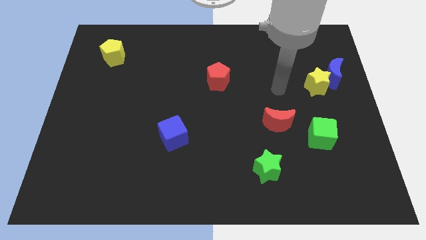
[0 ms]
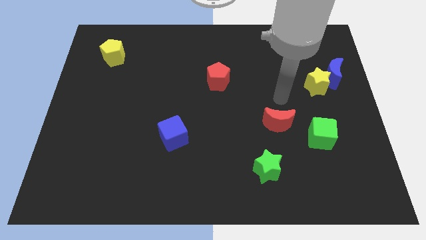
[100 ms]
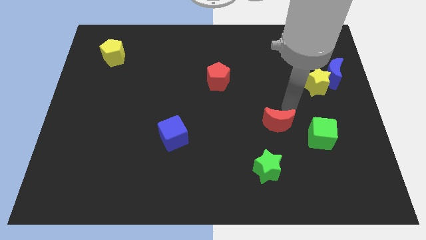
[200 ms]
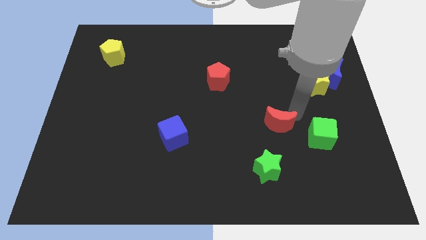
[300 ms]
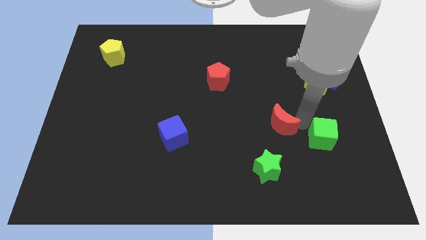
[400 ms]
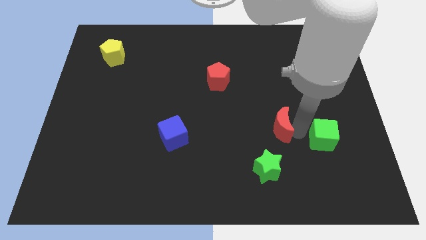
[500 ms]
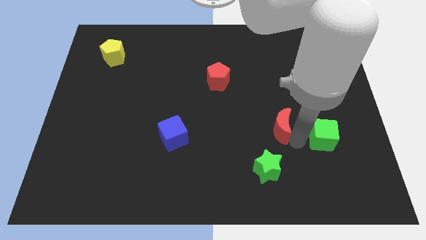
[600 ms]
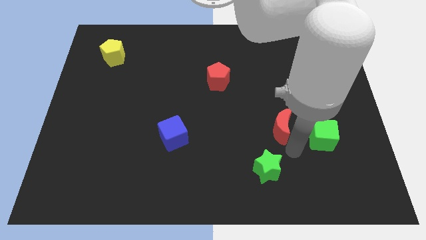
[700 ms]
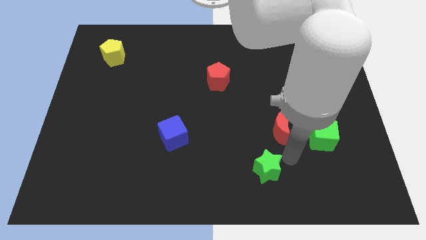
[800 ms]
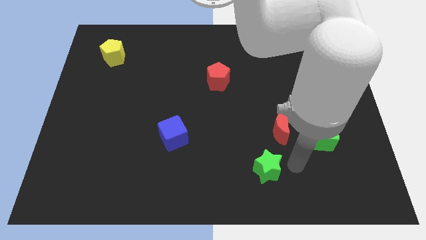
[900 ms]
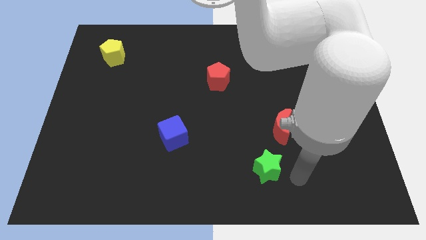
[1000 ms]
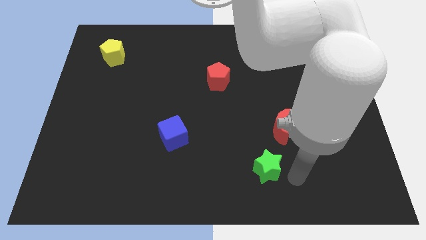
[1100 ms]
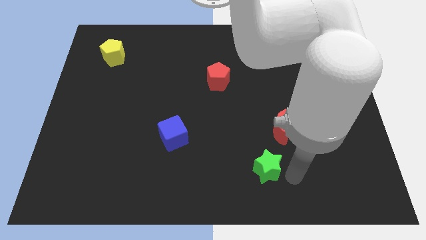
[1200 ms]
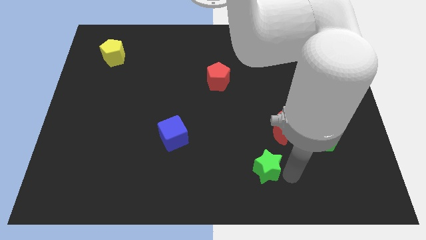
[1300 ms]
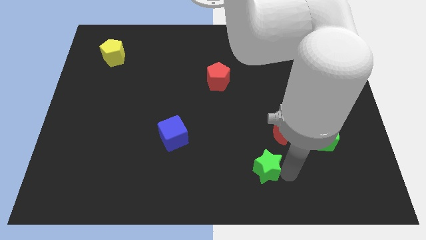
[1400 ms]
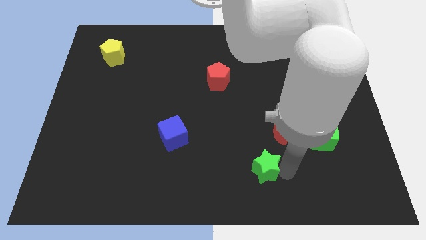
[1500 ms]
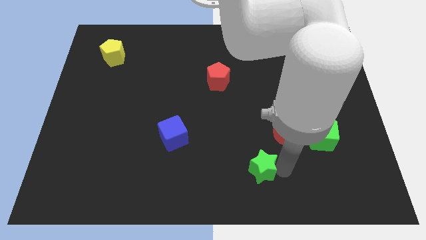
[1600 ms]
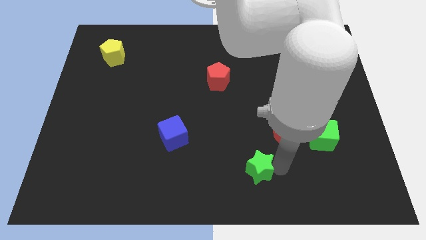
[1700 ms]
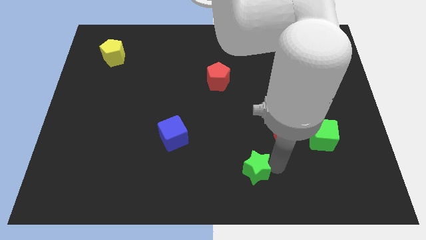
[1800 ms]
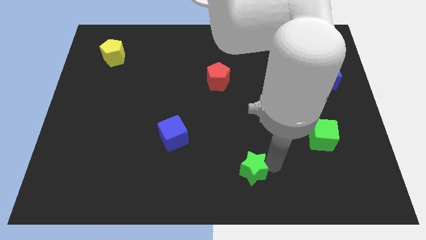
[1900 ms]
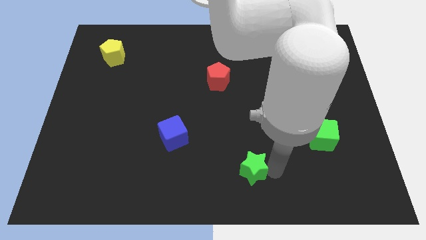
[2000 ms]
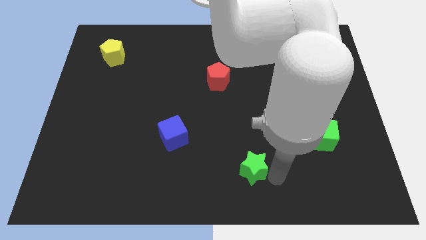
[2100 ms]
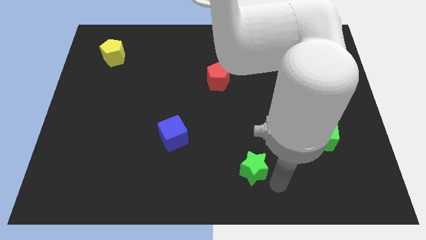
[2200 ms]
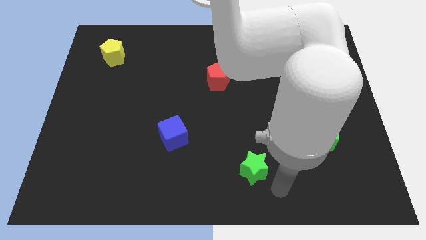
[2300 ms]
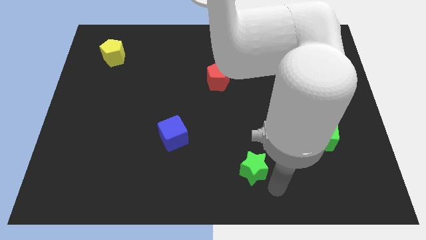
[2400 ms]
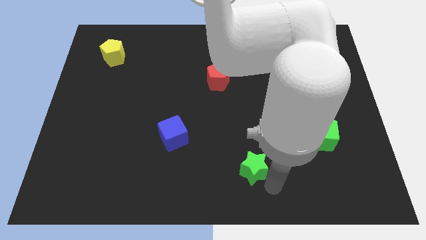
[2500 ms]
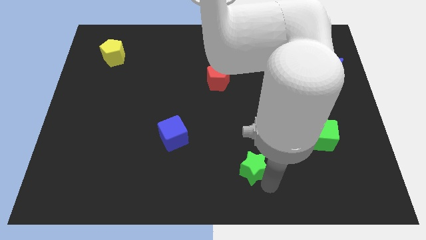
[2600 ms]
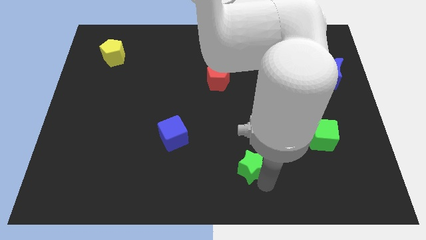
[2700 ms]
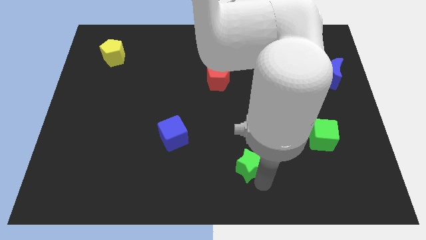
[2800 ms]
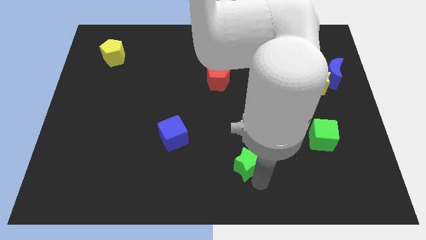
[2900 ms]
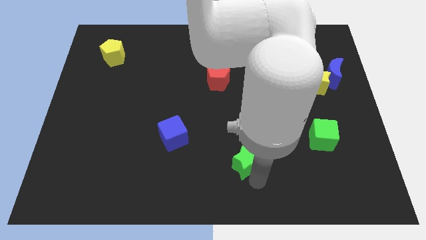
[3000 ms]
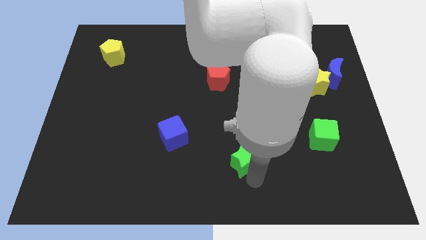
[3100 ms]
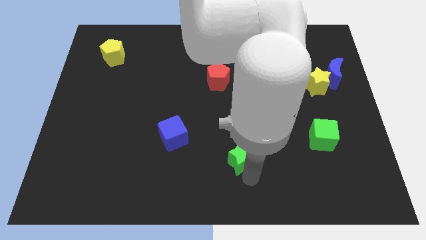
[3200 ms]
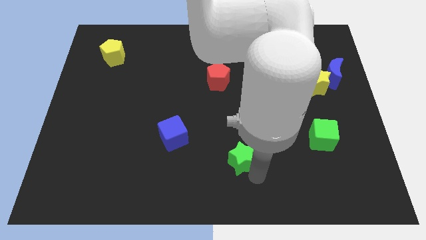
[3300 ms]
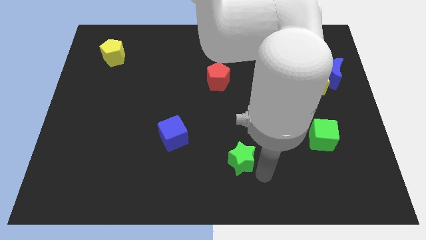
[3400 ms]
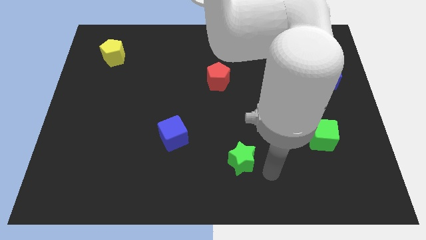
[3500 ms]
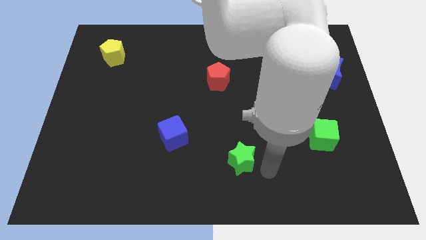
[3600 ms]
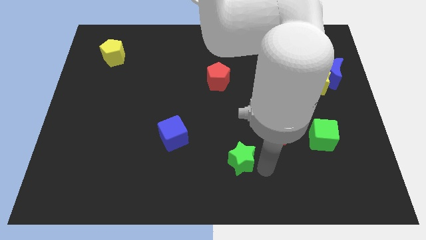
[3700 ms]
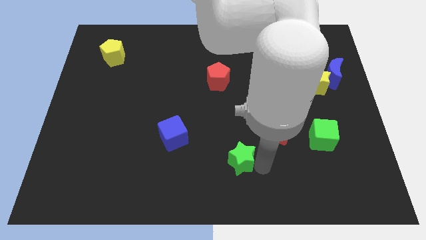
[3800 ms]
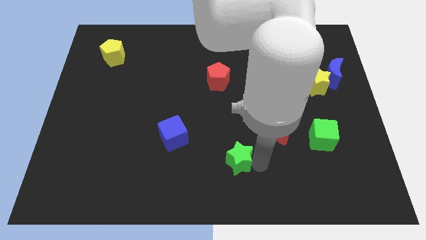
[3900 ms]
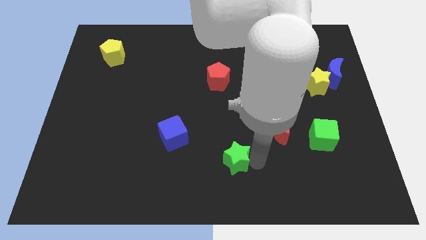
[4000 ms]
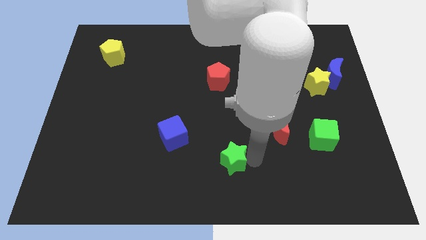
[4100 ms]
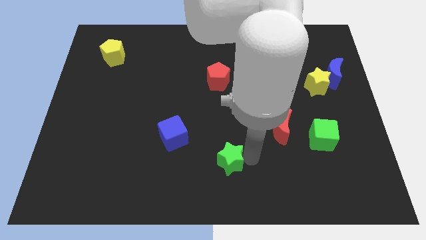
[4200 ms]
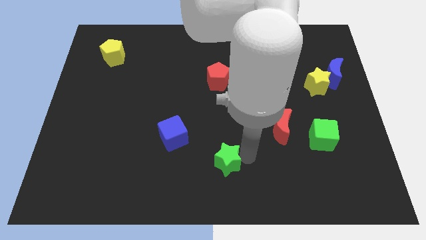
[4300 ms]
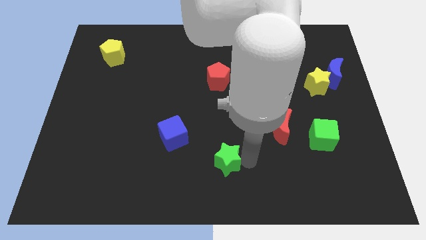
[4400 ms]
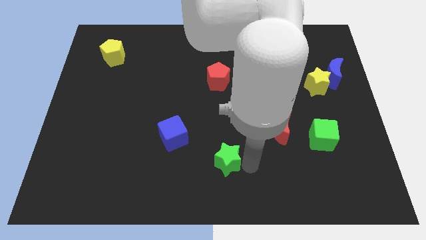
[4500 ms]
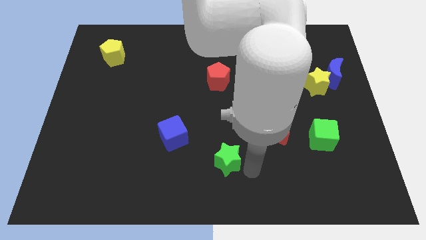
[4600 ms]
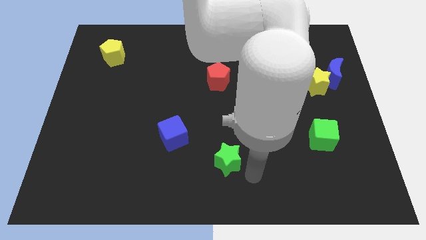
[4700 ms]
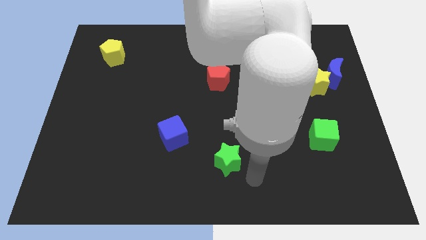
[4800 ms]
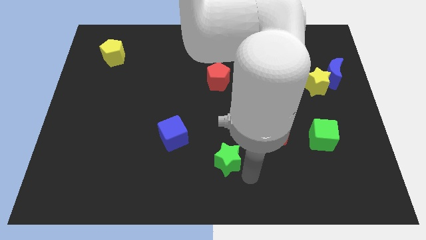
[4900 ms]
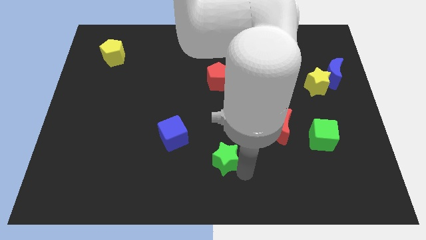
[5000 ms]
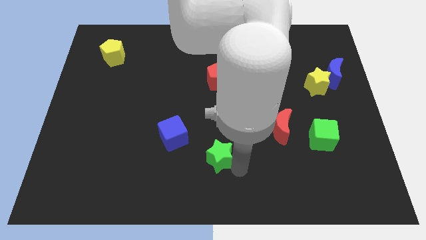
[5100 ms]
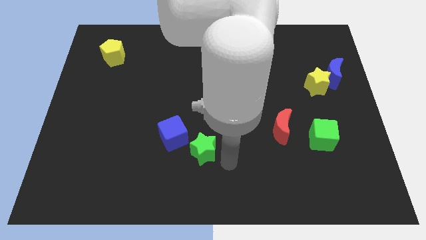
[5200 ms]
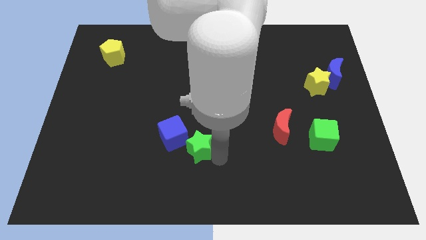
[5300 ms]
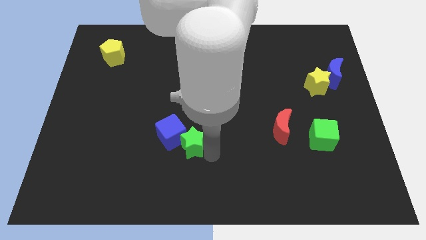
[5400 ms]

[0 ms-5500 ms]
move the green star next to the blue cube

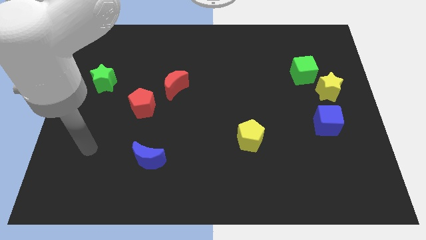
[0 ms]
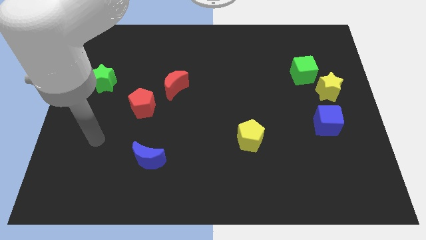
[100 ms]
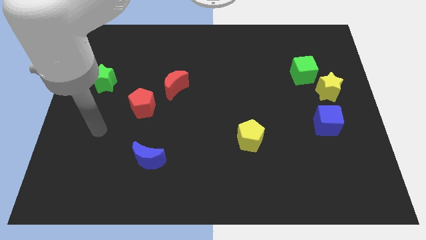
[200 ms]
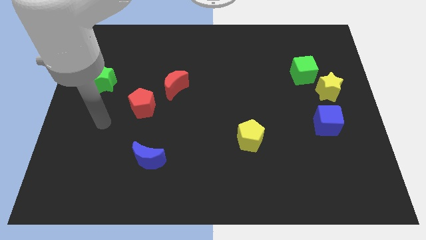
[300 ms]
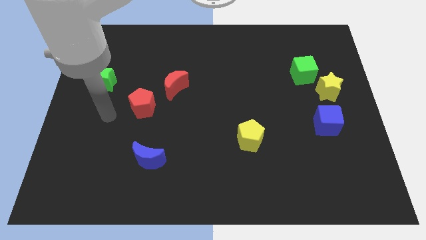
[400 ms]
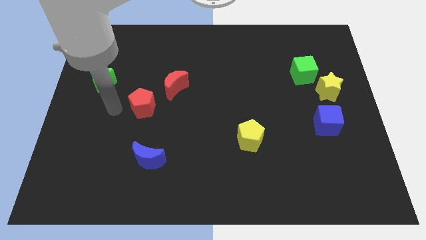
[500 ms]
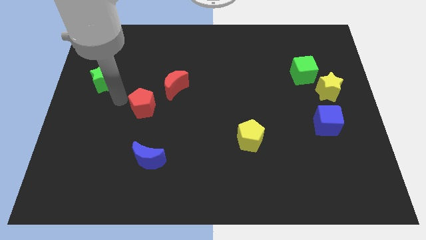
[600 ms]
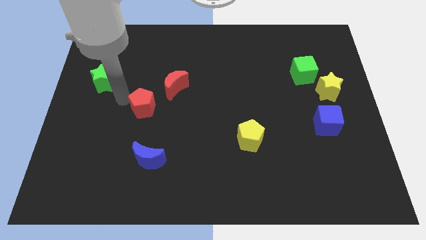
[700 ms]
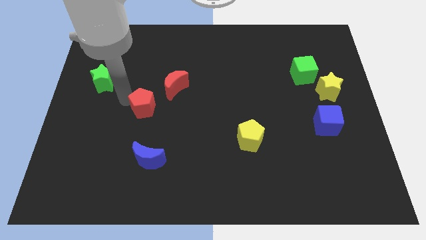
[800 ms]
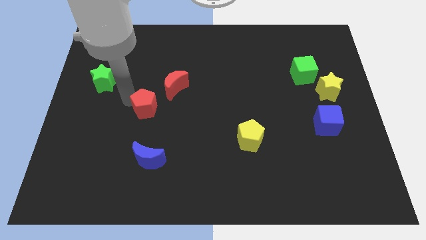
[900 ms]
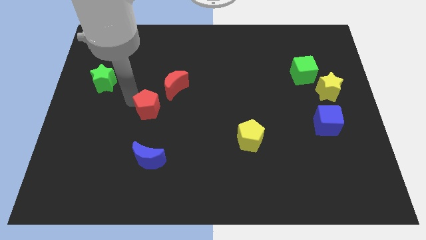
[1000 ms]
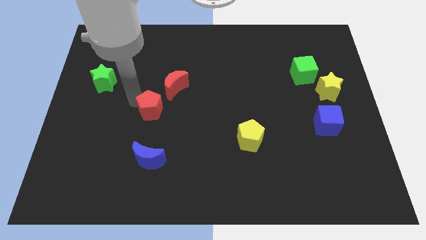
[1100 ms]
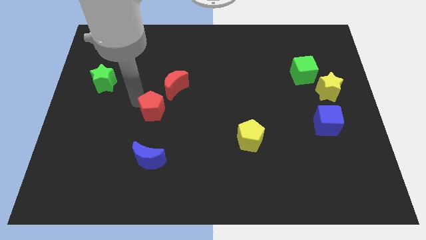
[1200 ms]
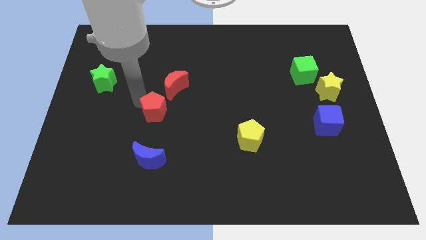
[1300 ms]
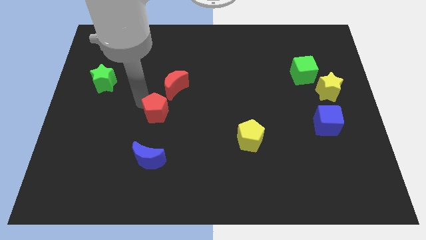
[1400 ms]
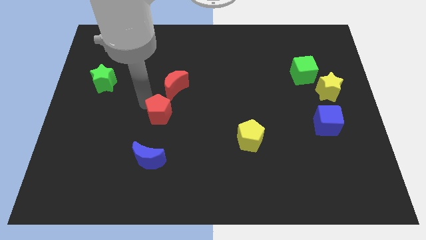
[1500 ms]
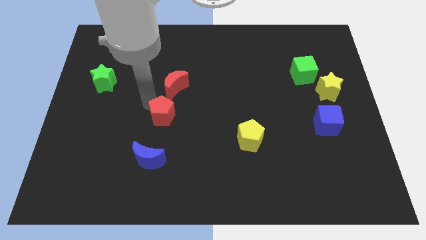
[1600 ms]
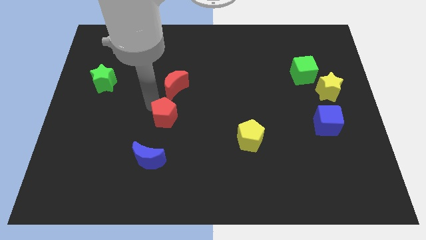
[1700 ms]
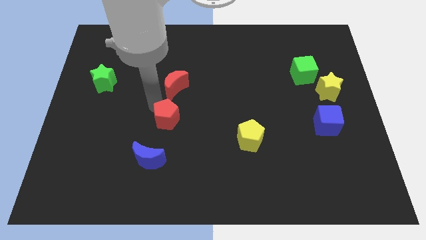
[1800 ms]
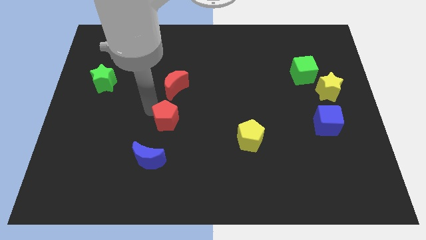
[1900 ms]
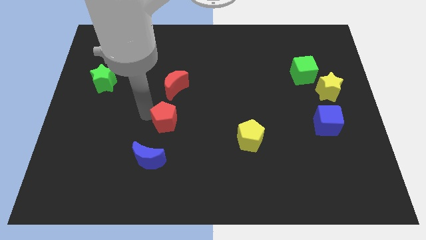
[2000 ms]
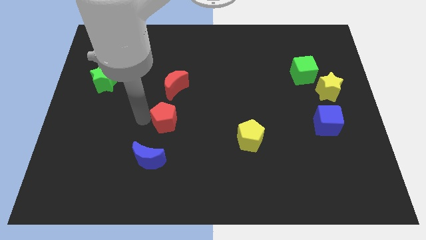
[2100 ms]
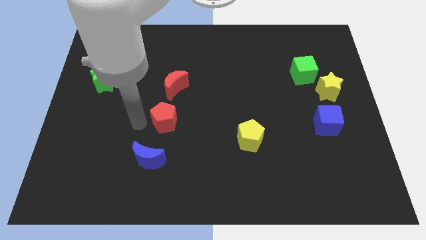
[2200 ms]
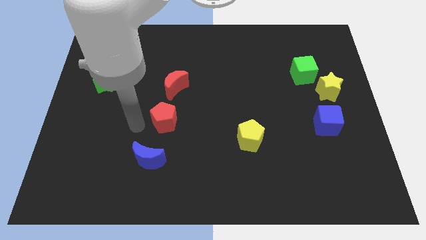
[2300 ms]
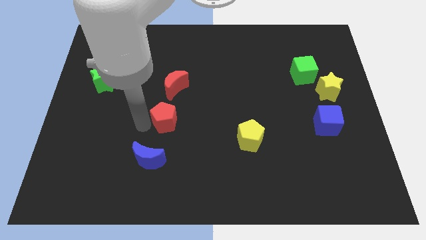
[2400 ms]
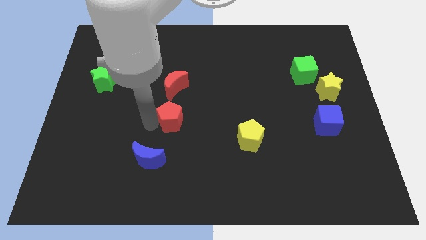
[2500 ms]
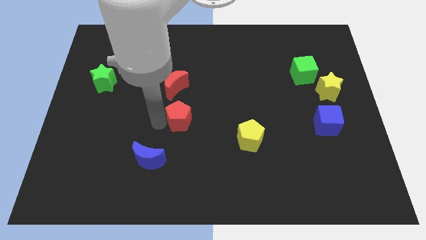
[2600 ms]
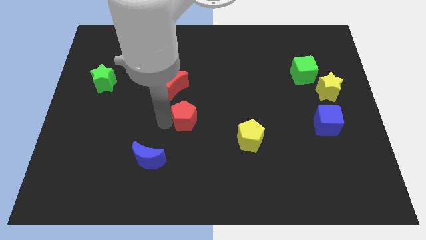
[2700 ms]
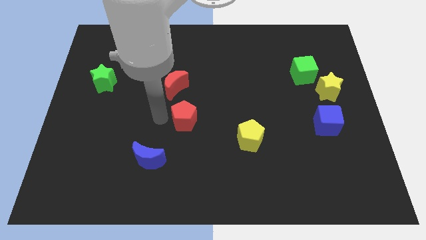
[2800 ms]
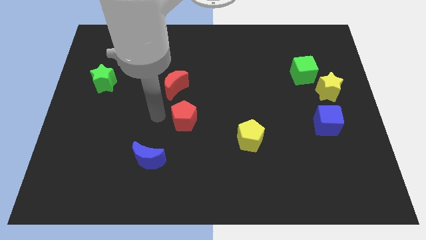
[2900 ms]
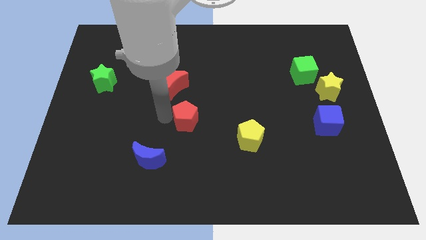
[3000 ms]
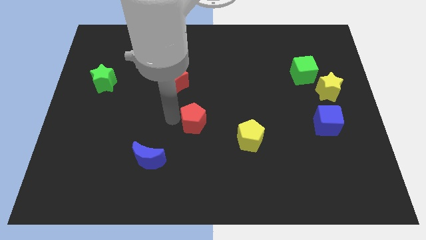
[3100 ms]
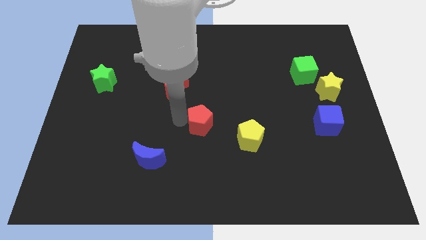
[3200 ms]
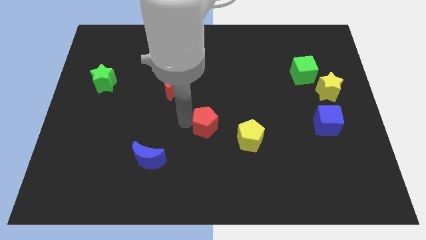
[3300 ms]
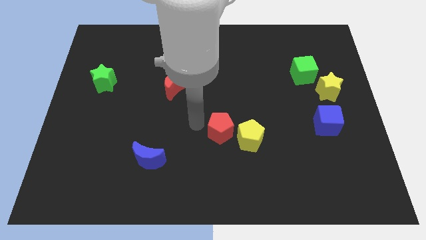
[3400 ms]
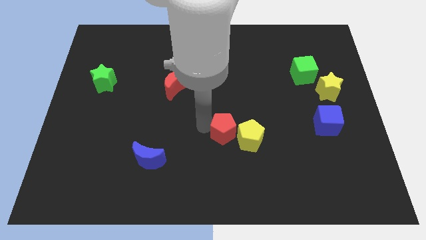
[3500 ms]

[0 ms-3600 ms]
slide the red pentagon towards the yellow pentagon
